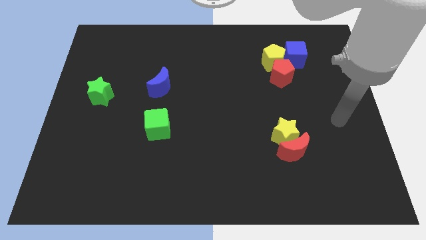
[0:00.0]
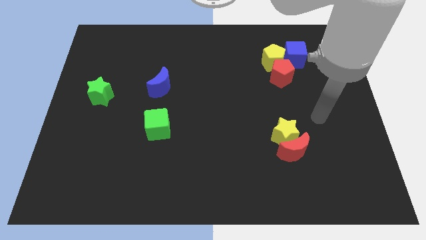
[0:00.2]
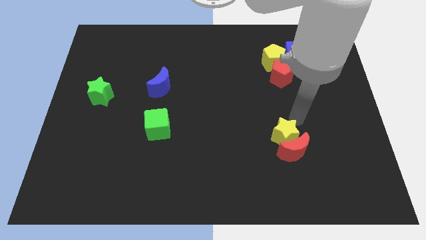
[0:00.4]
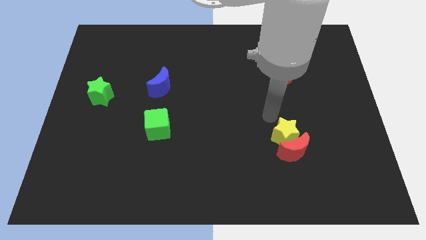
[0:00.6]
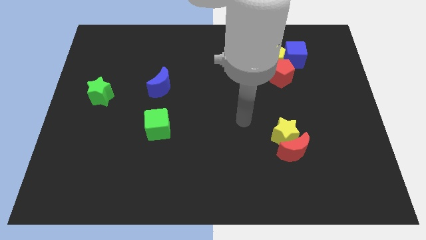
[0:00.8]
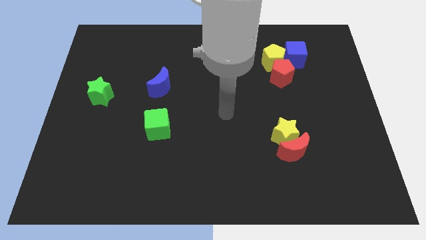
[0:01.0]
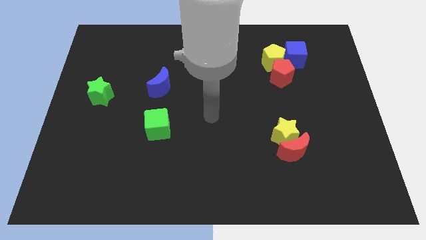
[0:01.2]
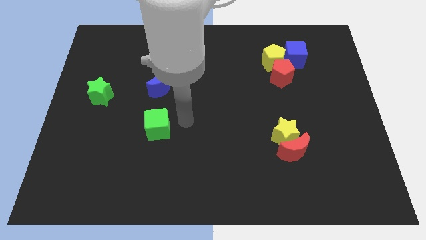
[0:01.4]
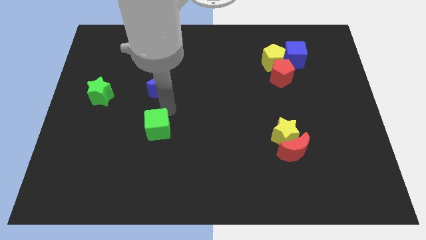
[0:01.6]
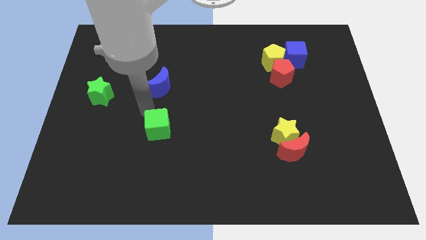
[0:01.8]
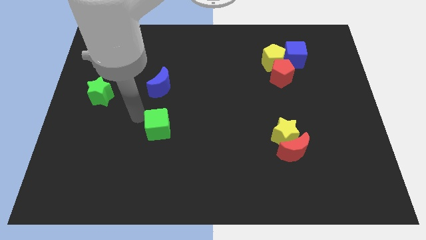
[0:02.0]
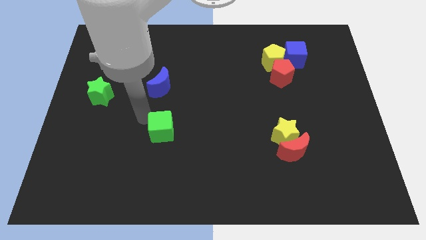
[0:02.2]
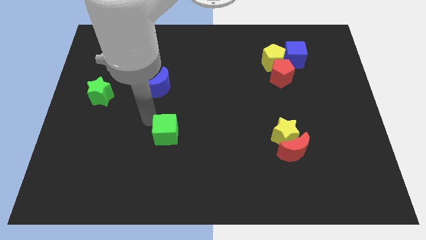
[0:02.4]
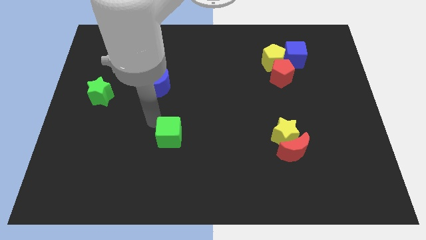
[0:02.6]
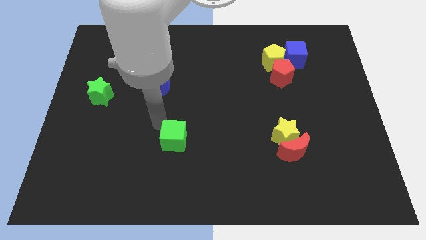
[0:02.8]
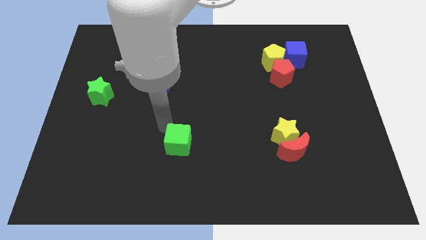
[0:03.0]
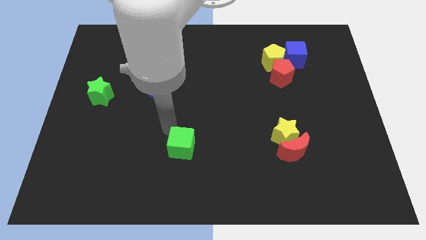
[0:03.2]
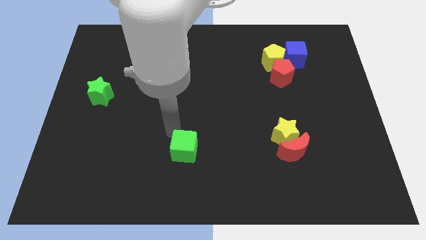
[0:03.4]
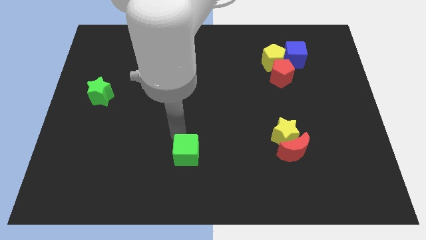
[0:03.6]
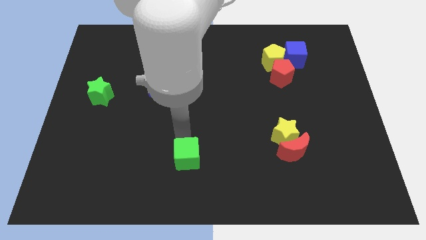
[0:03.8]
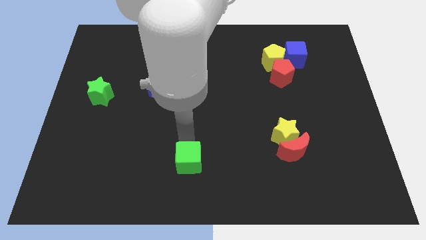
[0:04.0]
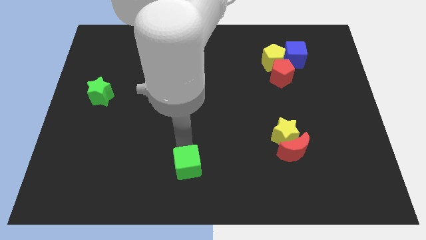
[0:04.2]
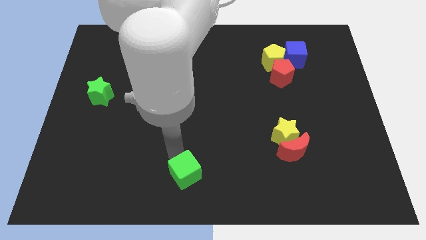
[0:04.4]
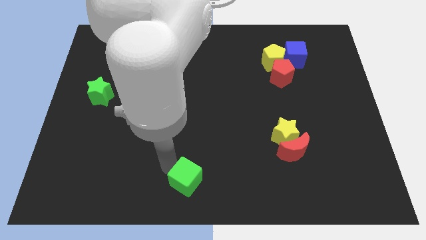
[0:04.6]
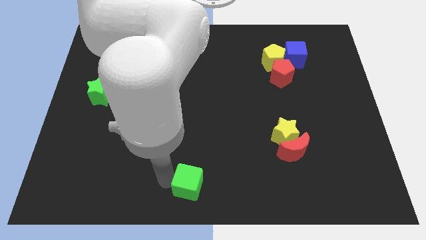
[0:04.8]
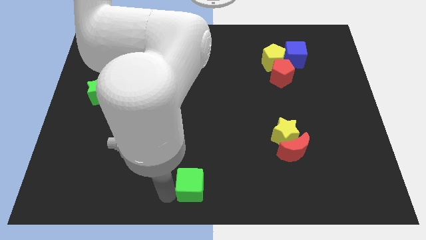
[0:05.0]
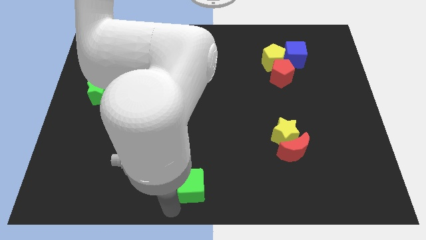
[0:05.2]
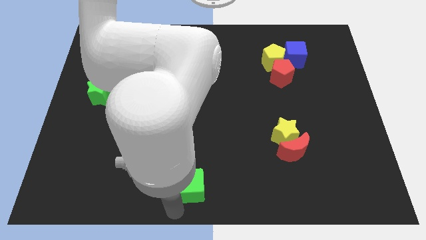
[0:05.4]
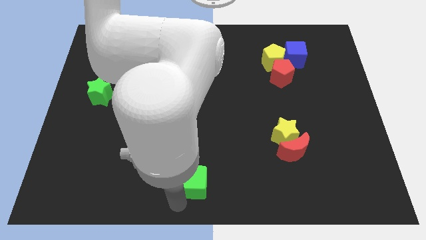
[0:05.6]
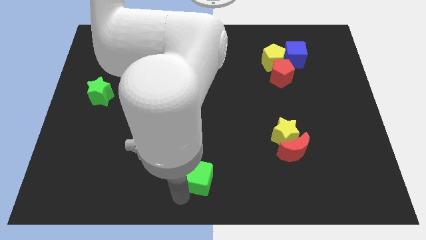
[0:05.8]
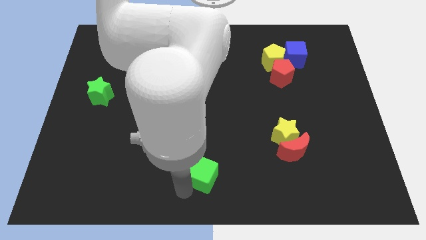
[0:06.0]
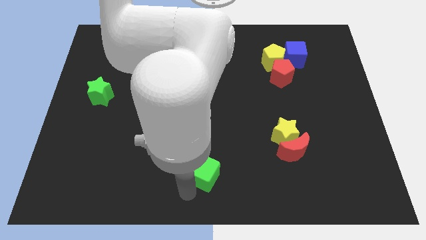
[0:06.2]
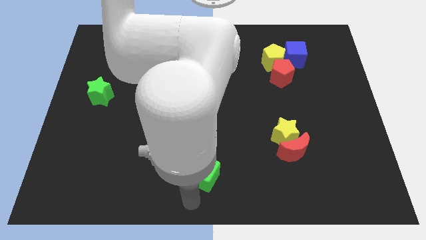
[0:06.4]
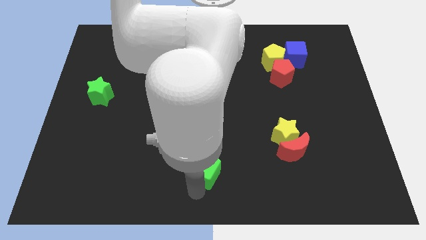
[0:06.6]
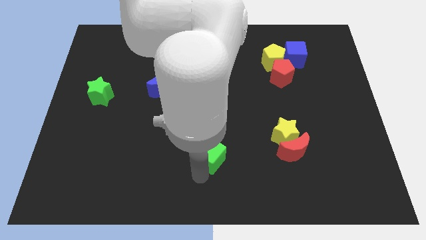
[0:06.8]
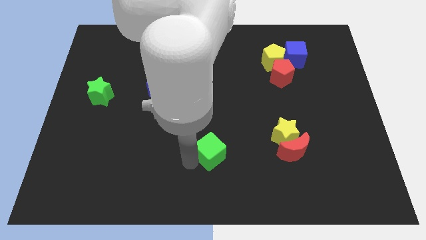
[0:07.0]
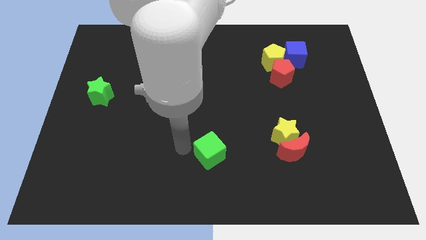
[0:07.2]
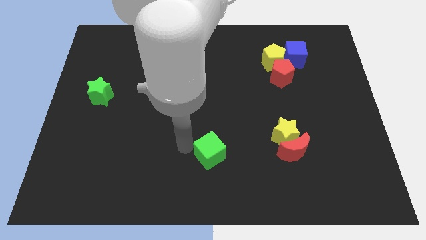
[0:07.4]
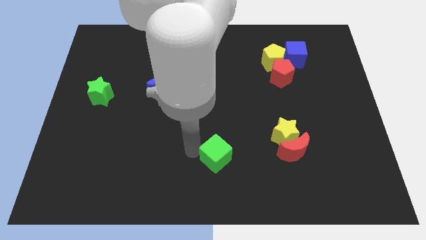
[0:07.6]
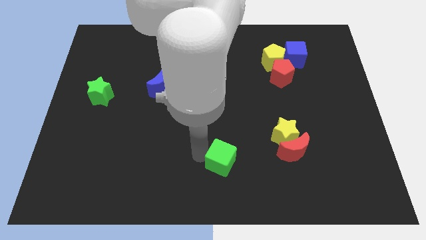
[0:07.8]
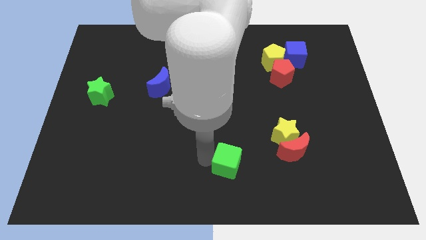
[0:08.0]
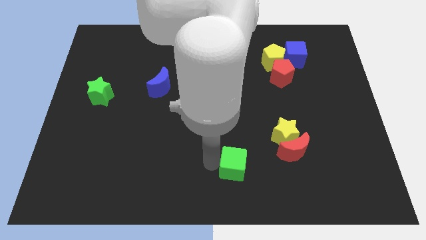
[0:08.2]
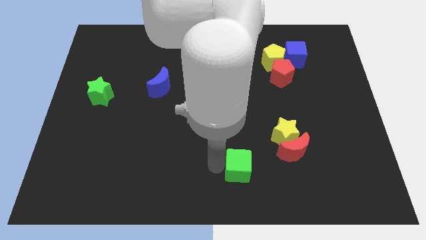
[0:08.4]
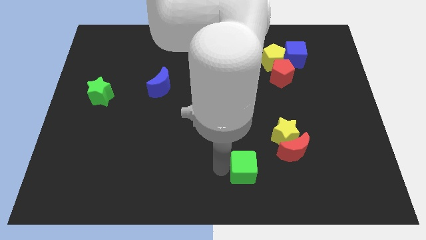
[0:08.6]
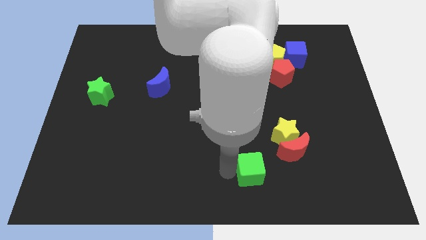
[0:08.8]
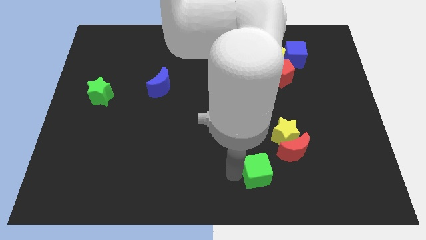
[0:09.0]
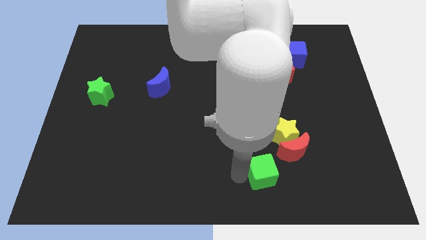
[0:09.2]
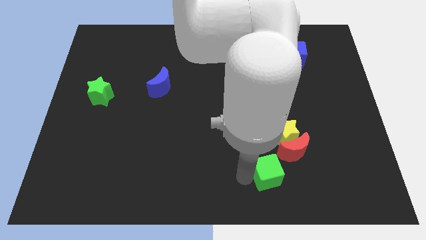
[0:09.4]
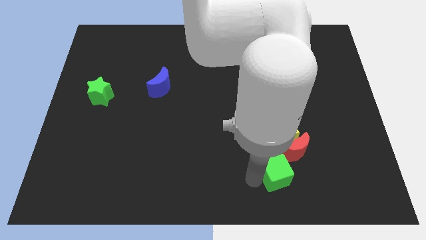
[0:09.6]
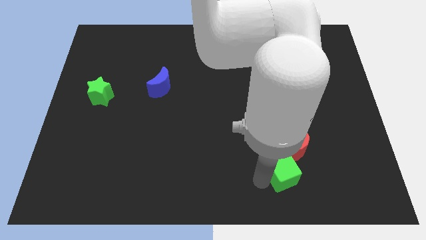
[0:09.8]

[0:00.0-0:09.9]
push the green cube close to the red moon

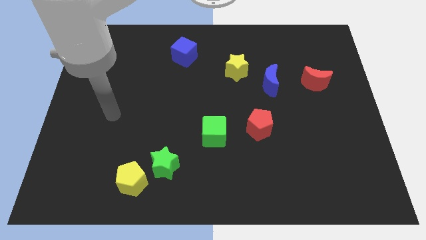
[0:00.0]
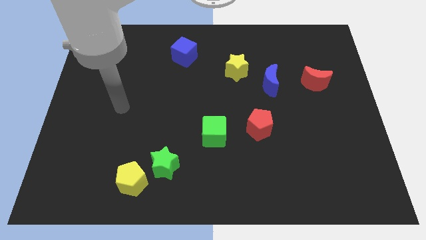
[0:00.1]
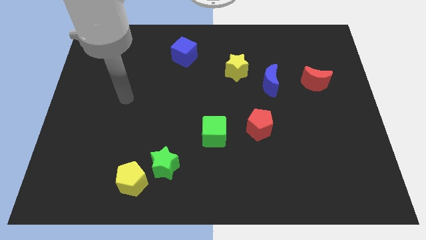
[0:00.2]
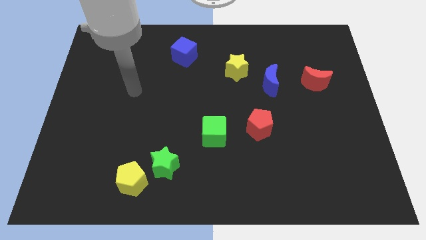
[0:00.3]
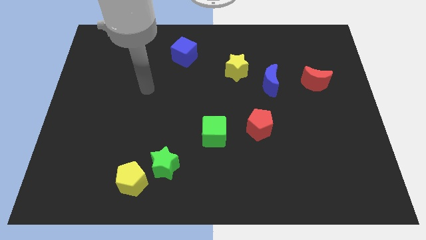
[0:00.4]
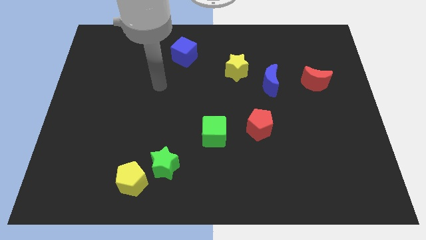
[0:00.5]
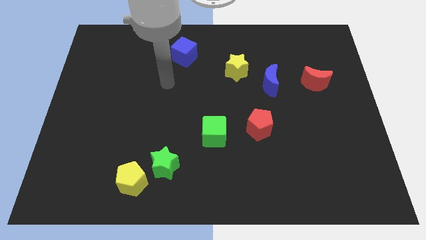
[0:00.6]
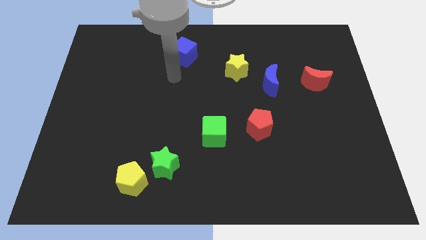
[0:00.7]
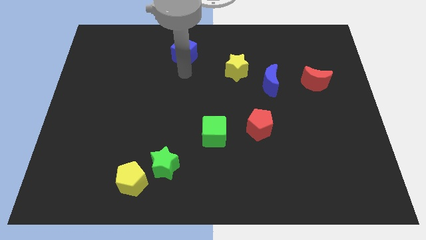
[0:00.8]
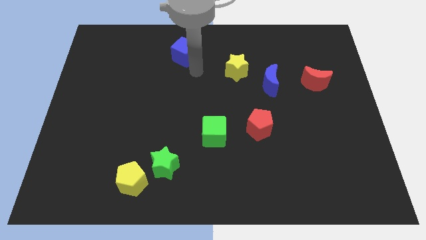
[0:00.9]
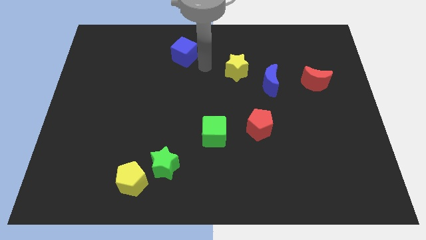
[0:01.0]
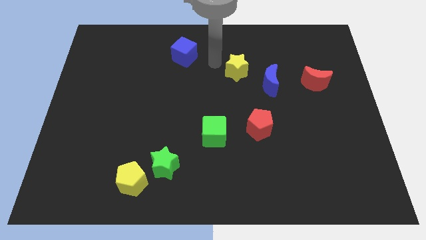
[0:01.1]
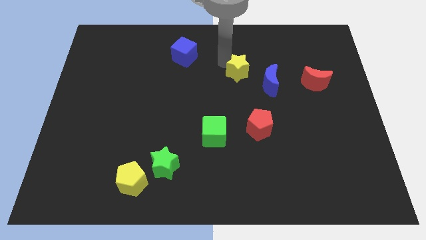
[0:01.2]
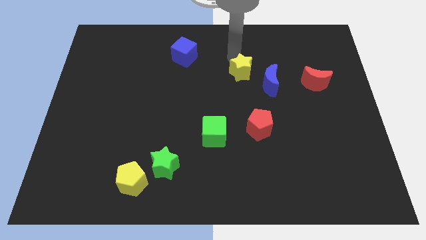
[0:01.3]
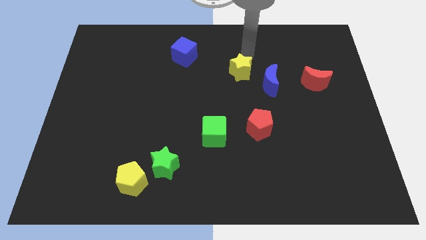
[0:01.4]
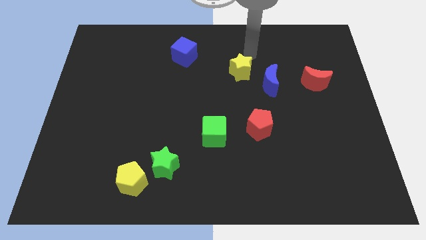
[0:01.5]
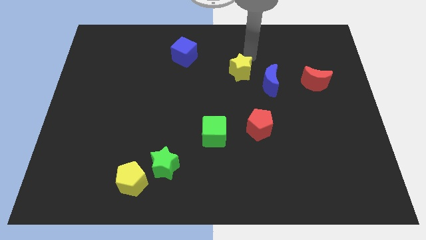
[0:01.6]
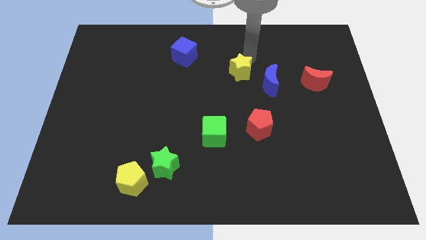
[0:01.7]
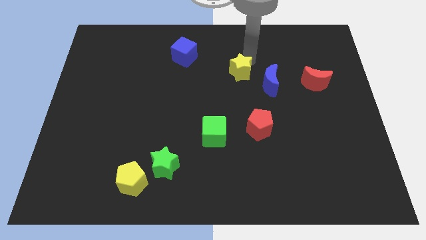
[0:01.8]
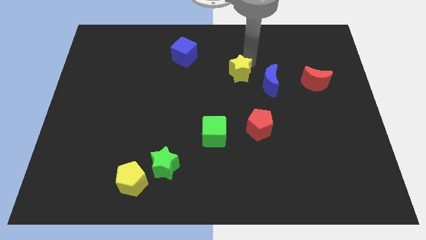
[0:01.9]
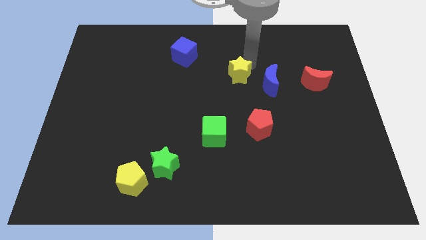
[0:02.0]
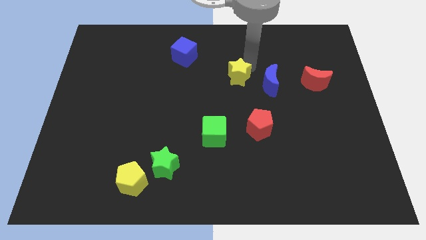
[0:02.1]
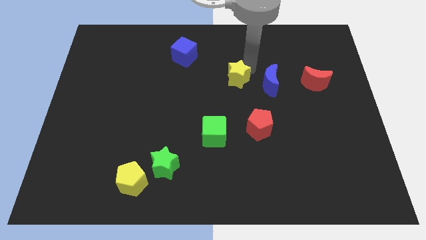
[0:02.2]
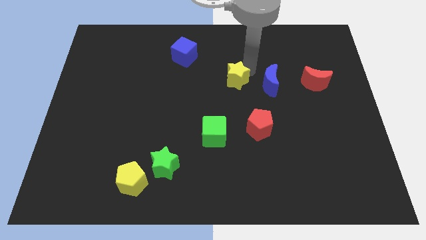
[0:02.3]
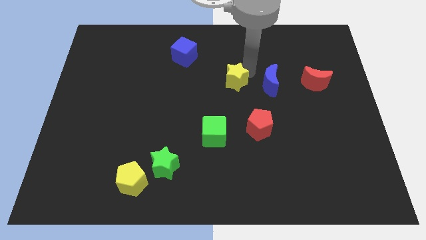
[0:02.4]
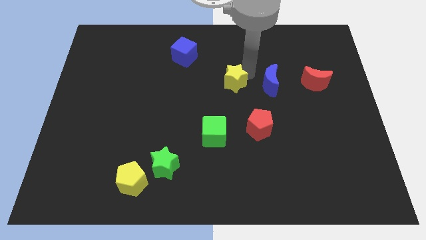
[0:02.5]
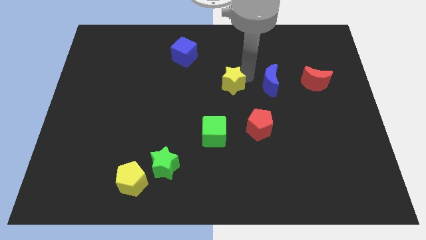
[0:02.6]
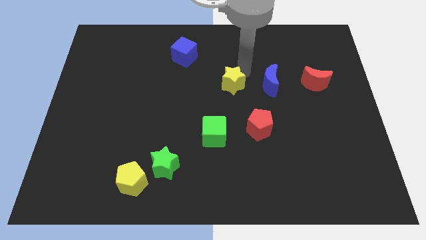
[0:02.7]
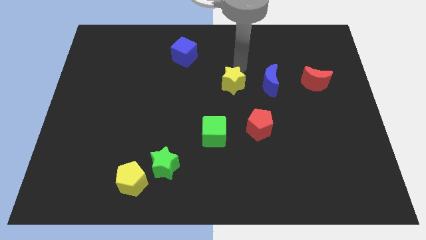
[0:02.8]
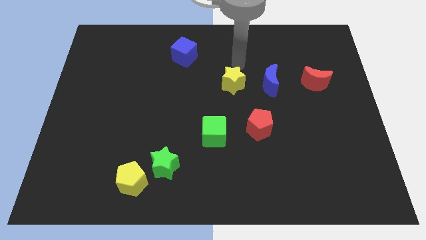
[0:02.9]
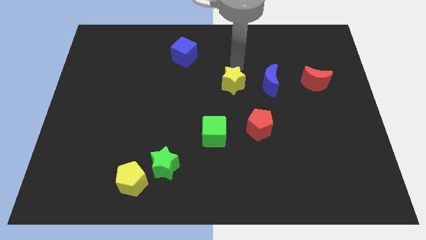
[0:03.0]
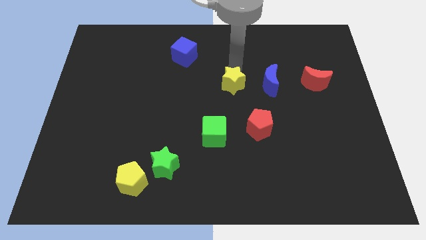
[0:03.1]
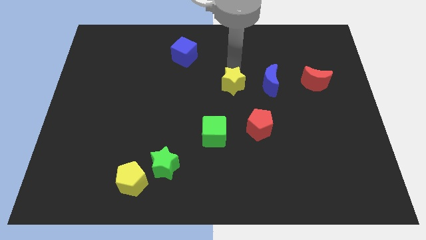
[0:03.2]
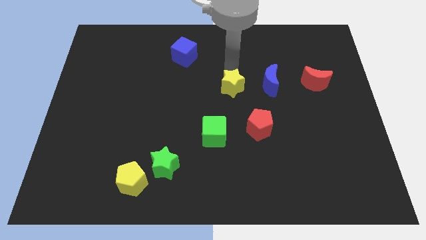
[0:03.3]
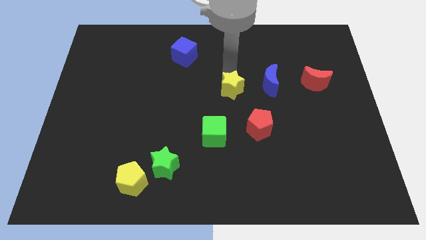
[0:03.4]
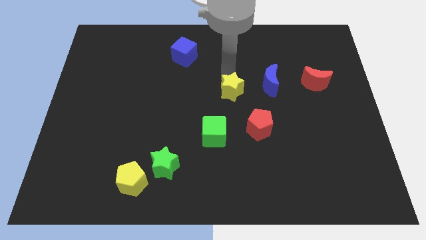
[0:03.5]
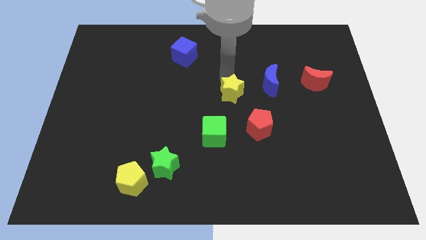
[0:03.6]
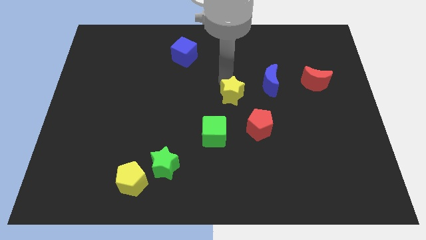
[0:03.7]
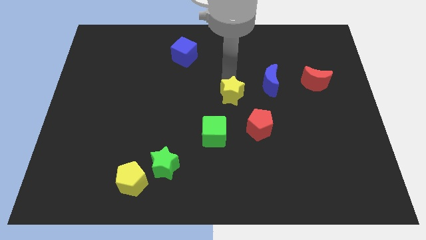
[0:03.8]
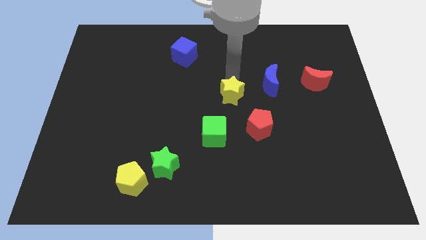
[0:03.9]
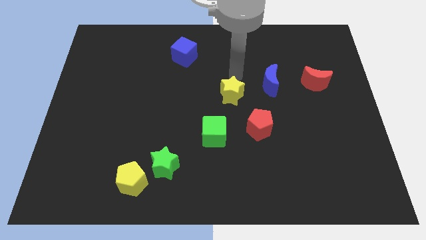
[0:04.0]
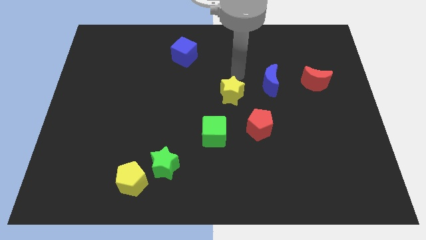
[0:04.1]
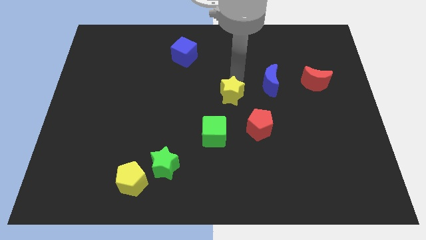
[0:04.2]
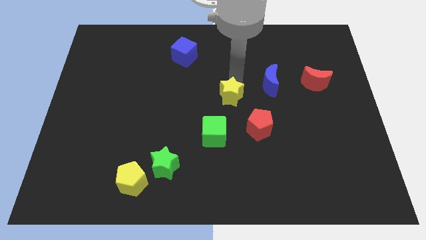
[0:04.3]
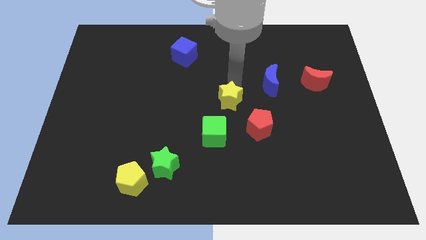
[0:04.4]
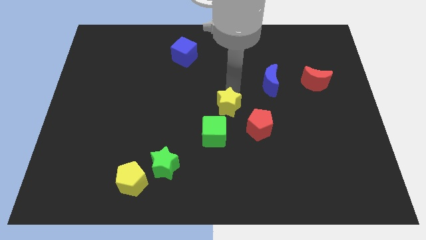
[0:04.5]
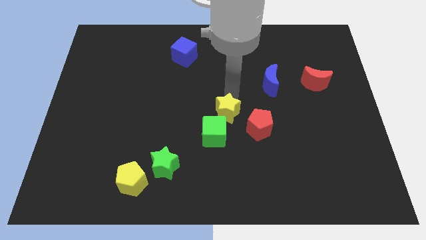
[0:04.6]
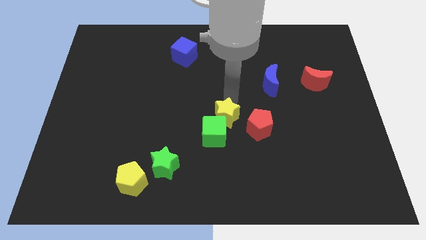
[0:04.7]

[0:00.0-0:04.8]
push the yellow star to the green cube
